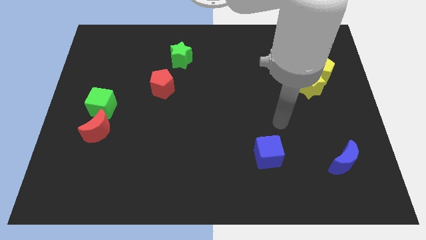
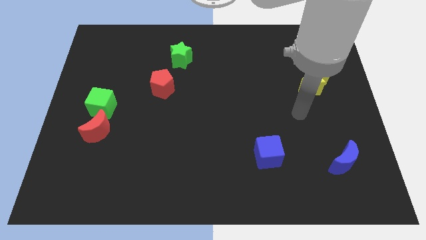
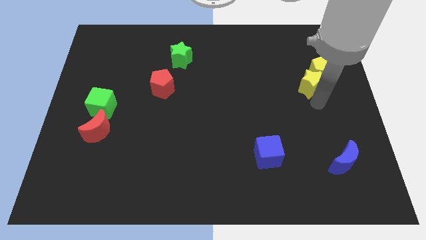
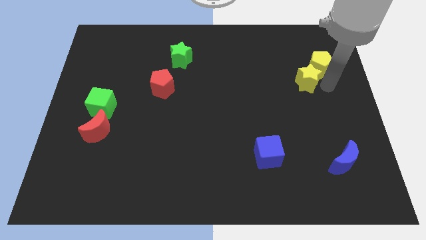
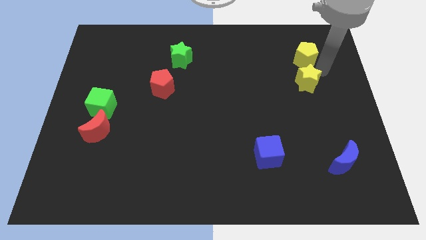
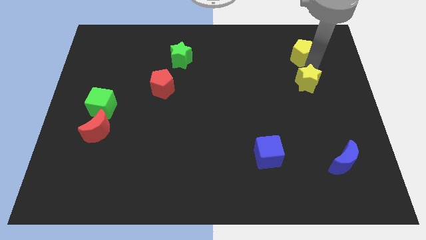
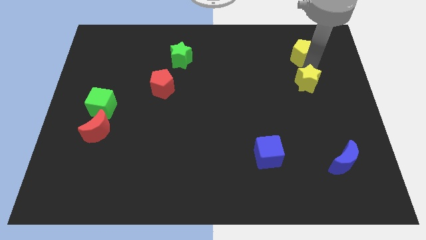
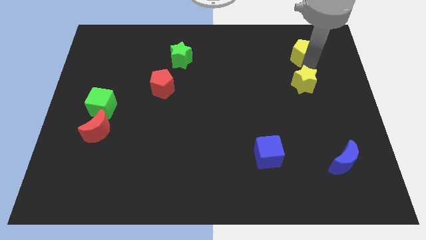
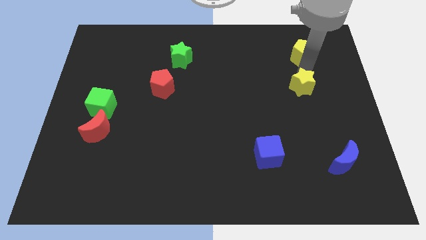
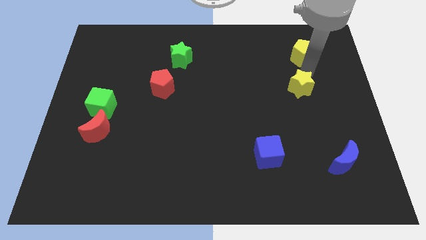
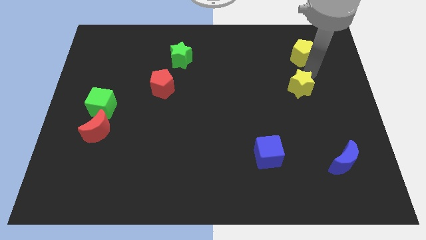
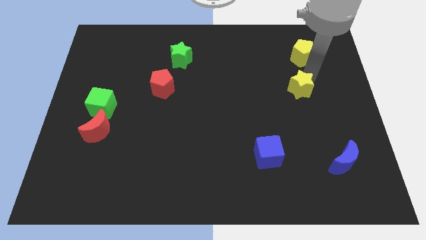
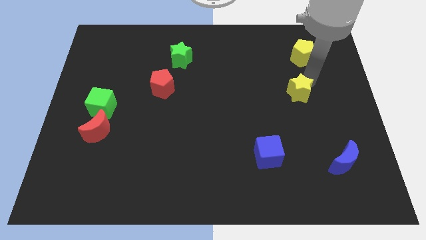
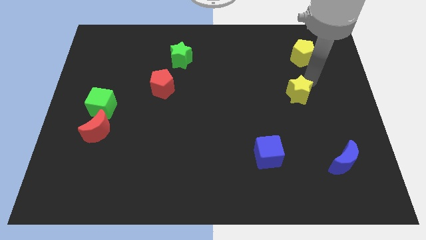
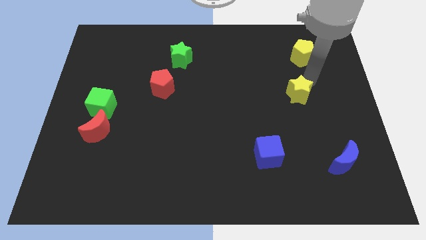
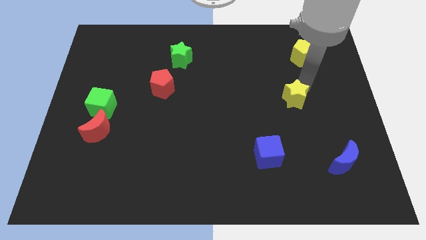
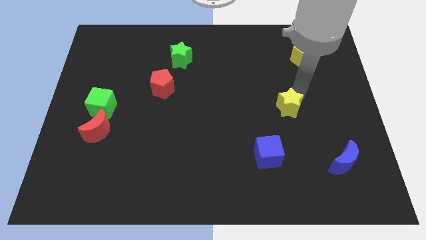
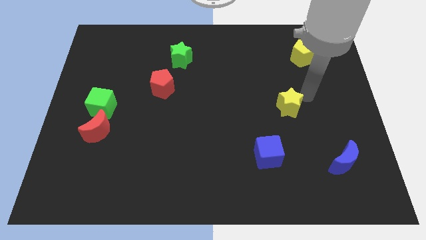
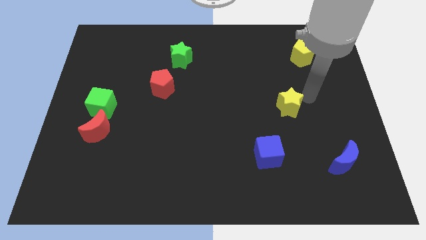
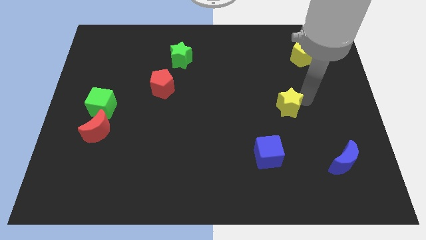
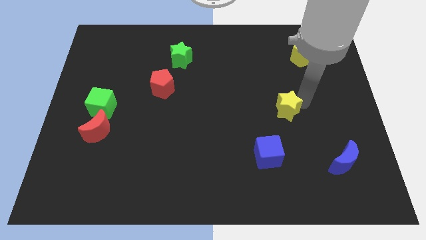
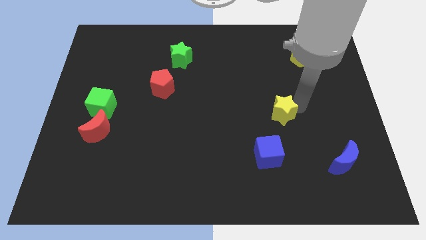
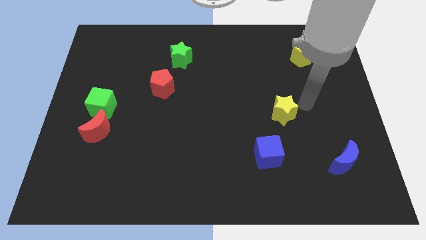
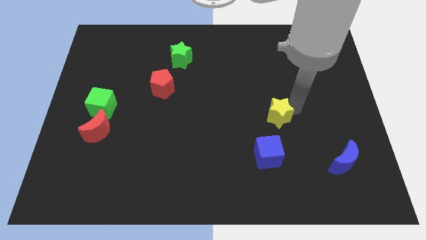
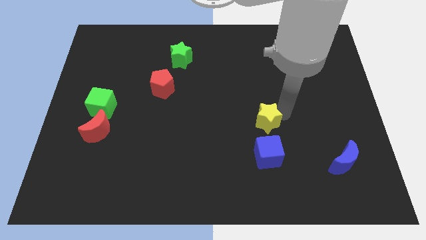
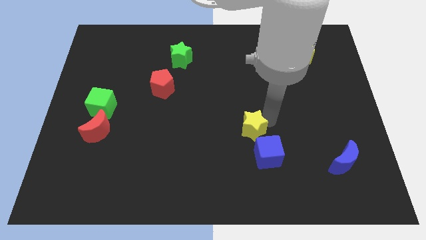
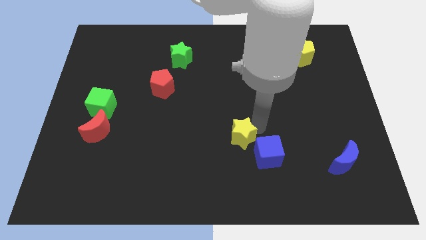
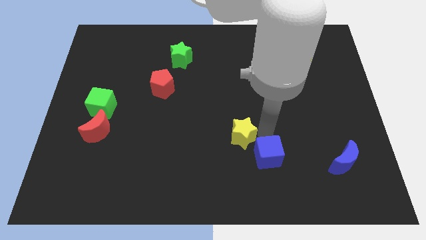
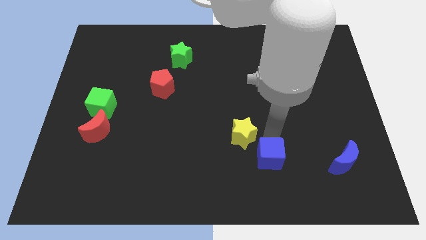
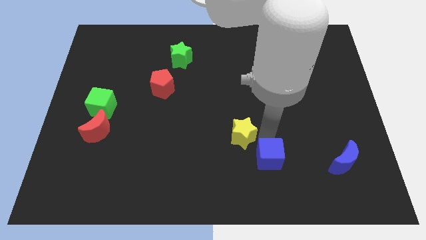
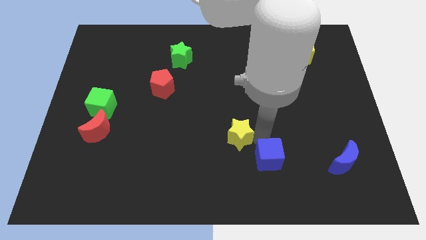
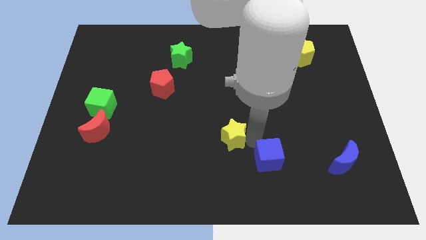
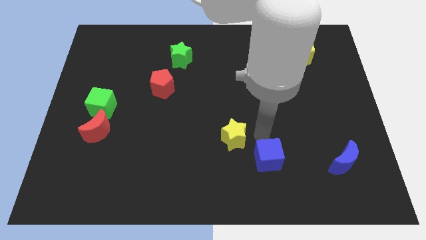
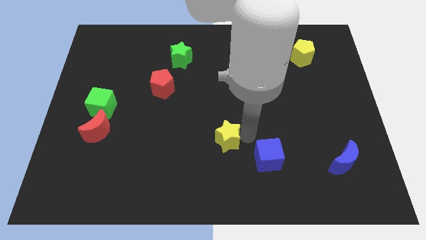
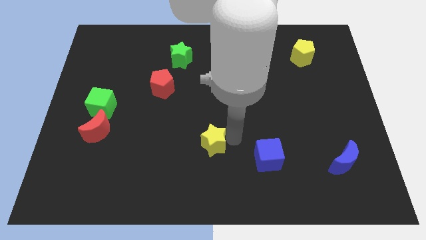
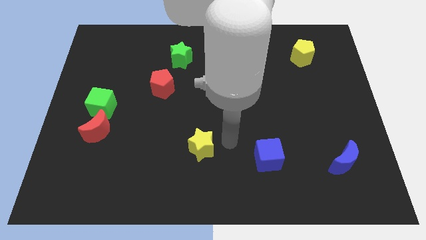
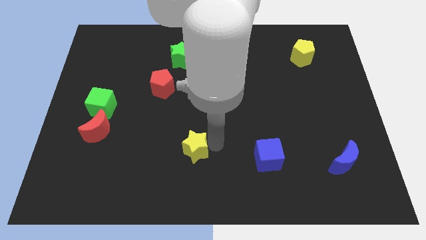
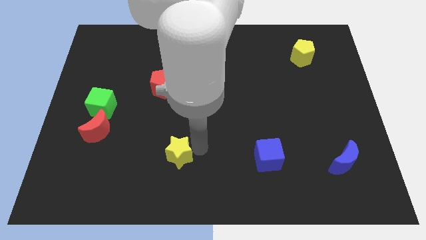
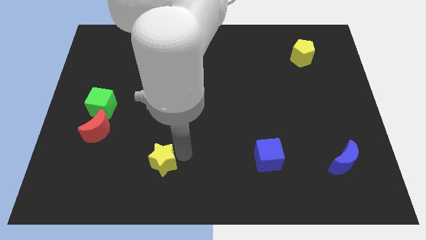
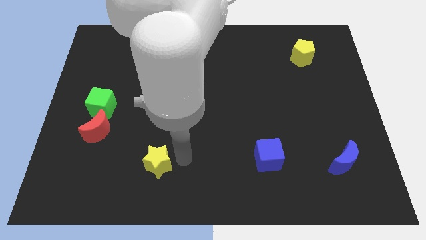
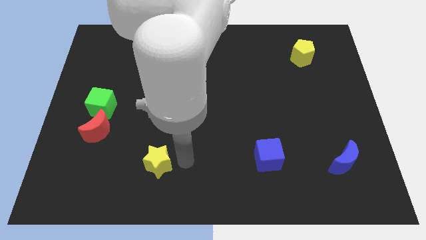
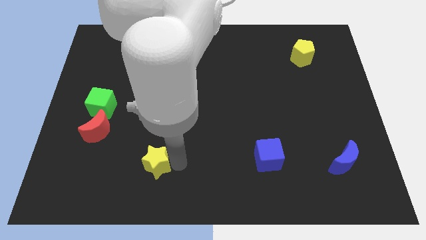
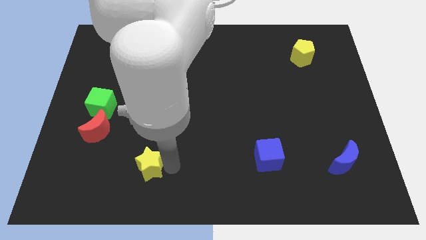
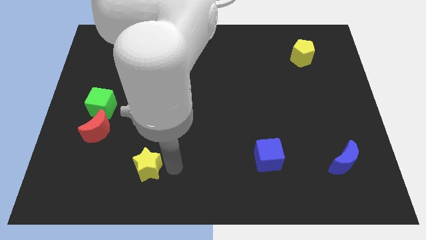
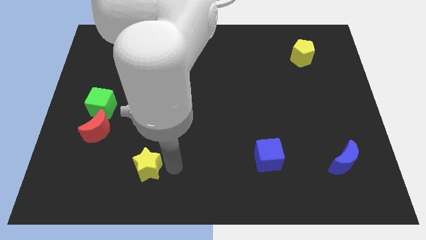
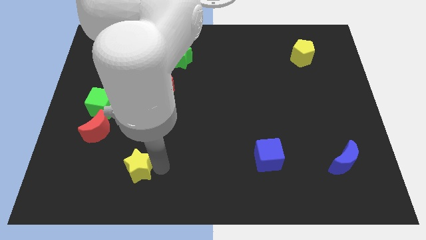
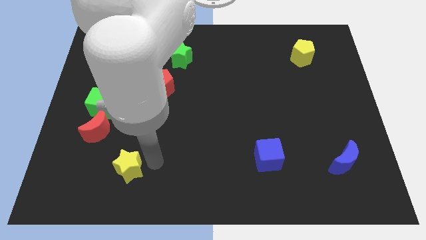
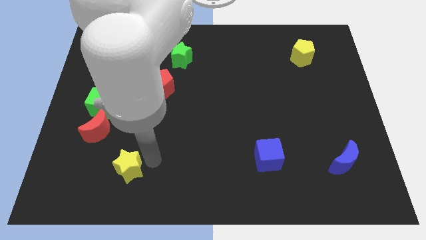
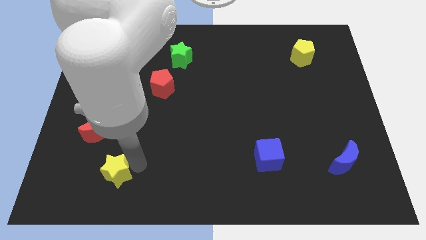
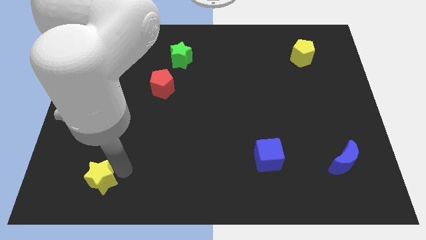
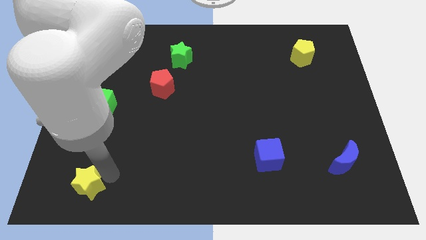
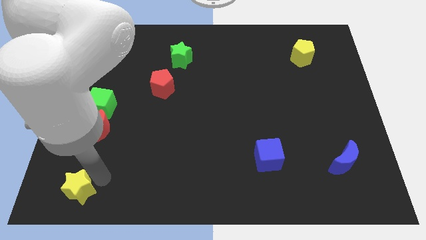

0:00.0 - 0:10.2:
slide the yellow star to the lower left corner

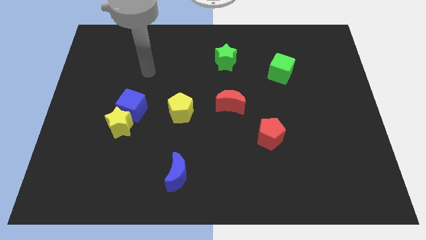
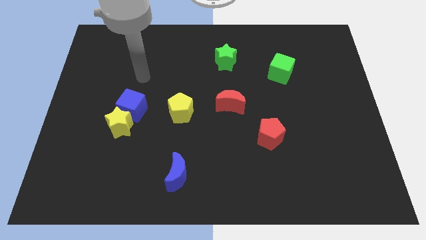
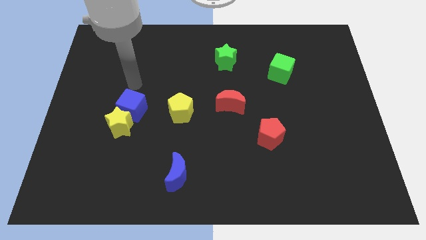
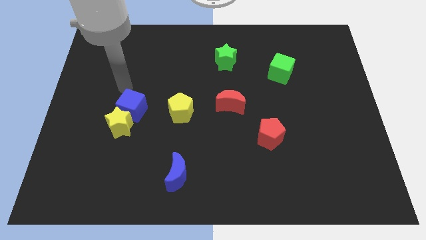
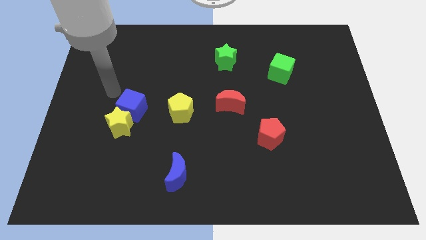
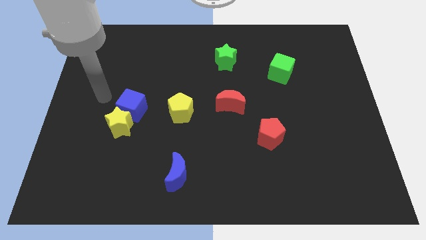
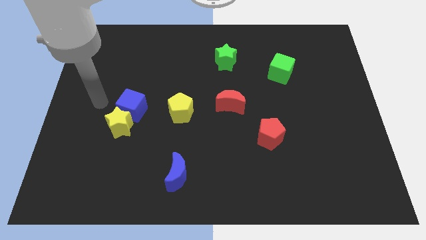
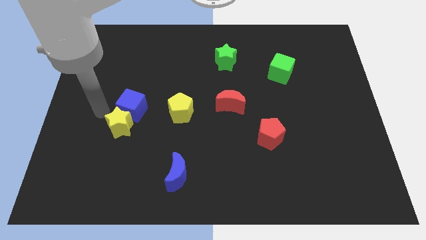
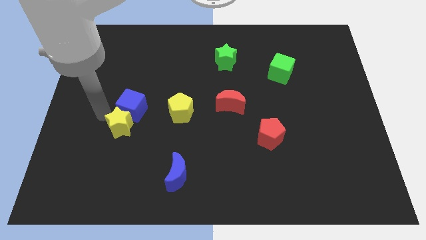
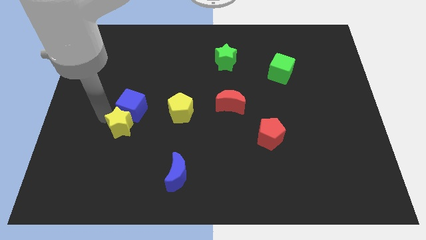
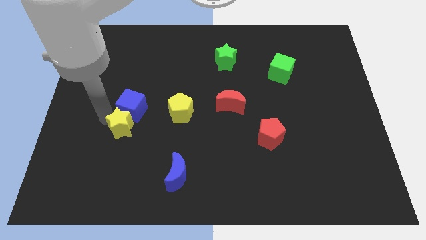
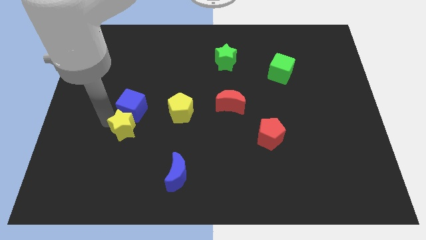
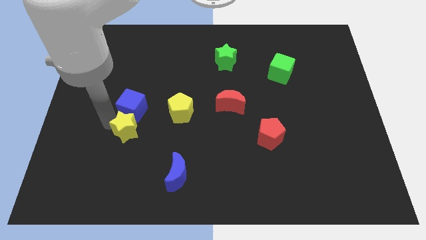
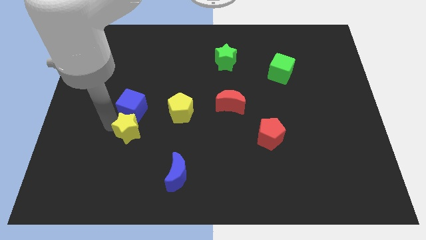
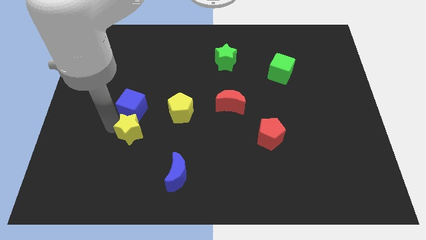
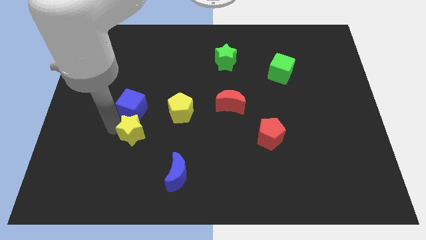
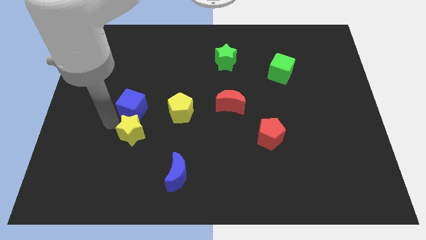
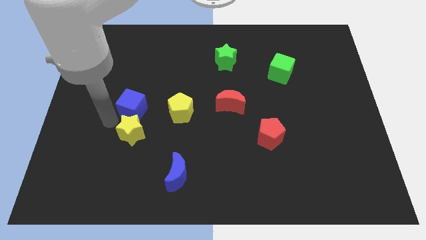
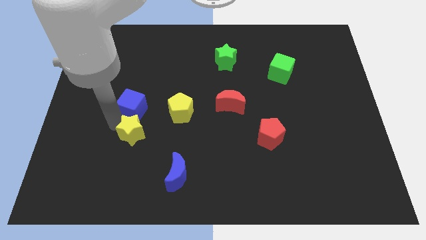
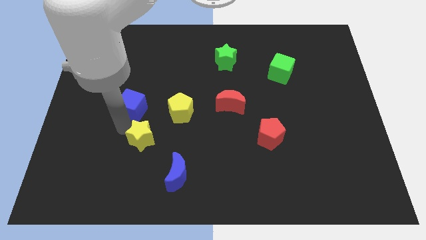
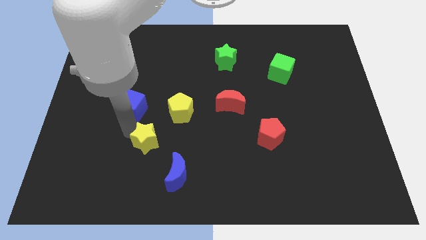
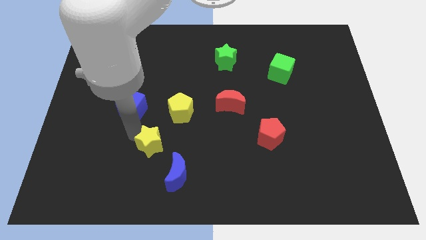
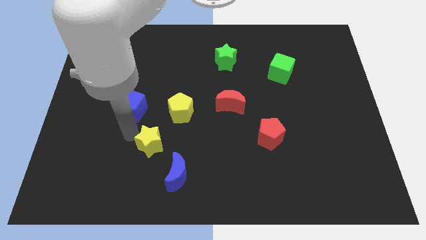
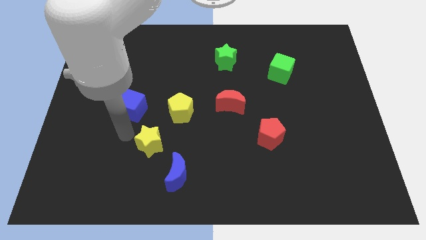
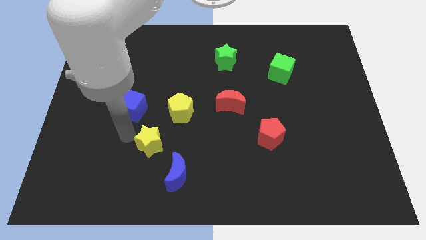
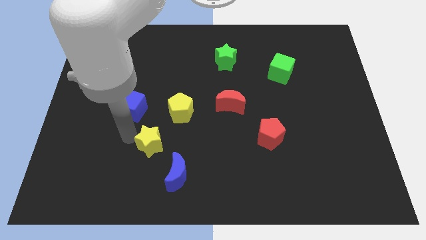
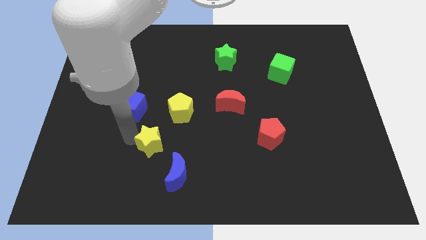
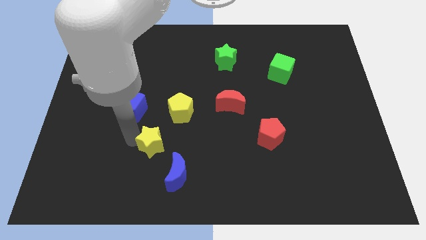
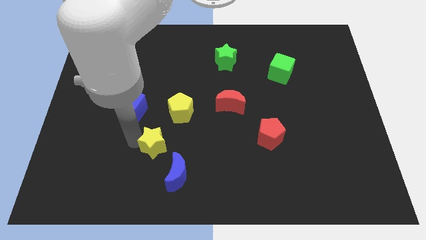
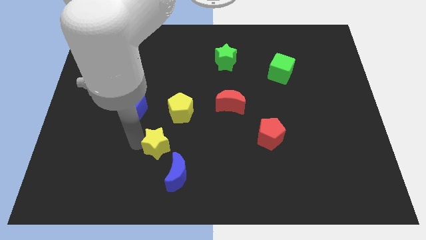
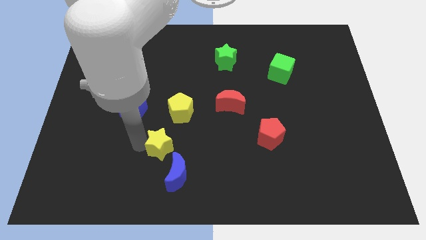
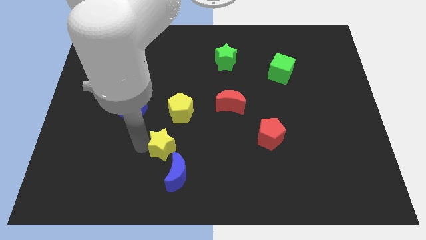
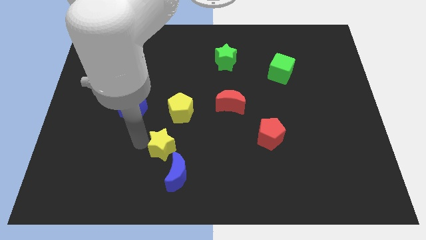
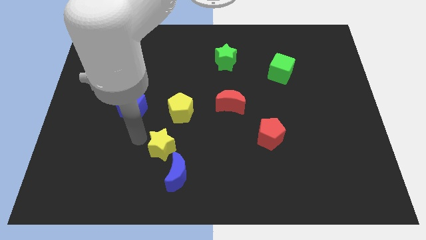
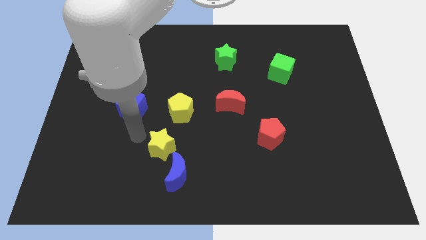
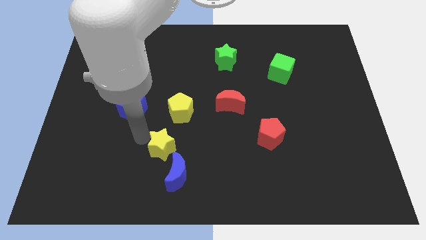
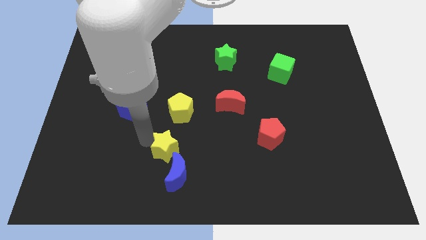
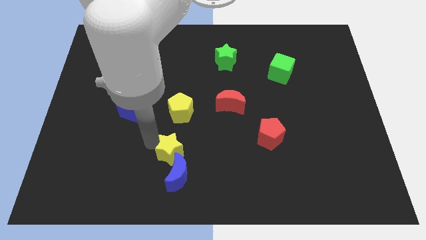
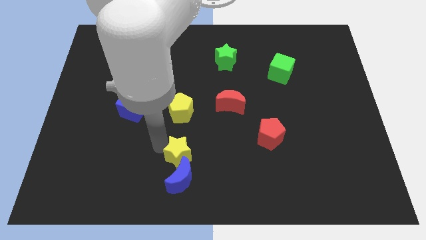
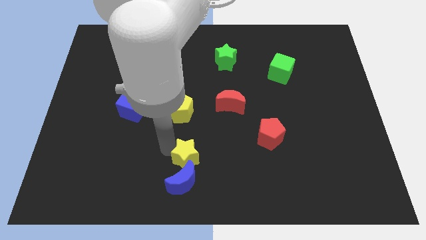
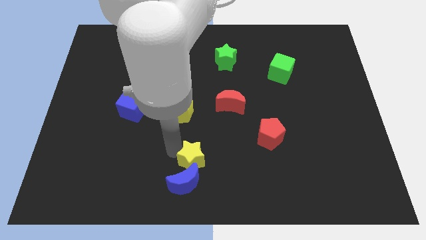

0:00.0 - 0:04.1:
move the yellow star to the bottom side
